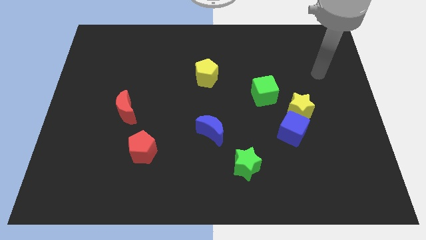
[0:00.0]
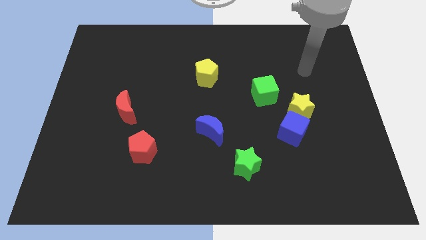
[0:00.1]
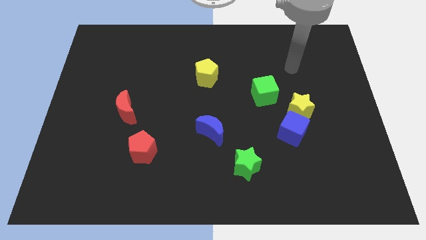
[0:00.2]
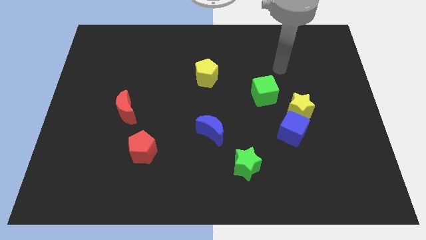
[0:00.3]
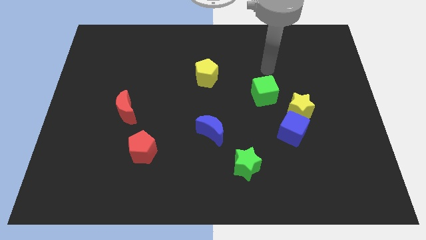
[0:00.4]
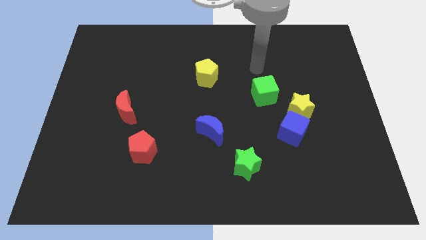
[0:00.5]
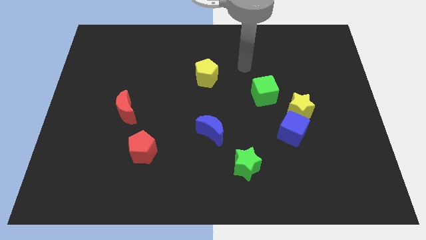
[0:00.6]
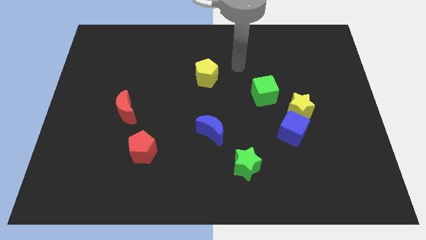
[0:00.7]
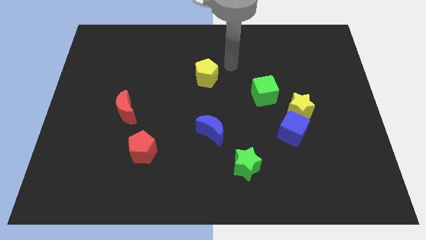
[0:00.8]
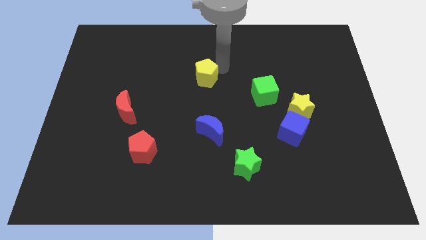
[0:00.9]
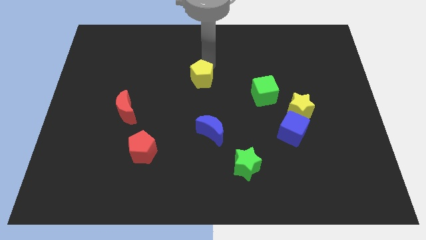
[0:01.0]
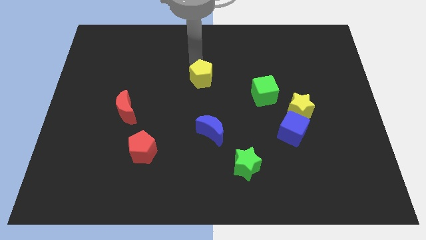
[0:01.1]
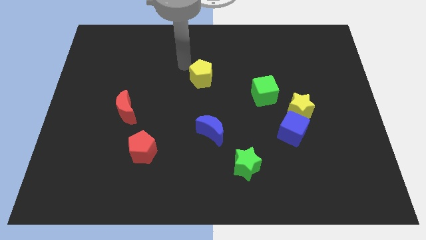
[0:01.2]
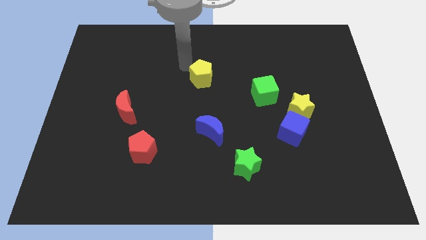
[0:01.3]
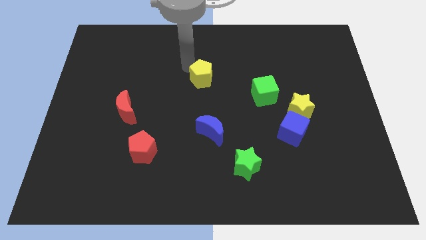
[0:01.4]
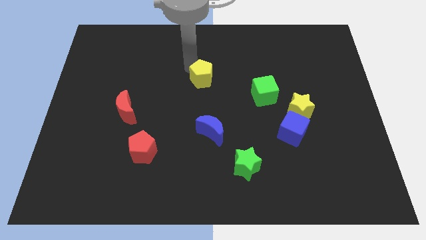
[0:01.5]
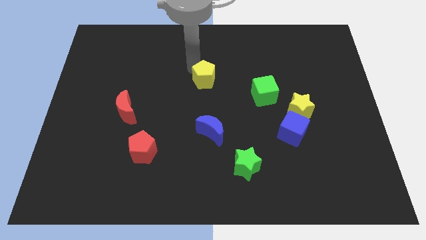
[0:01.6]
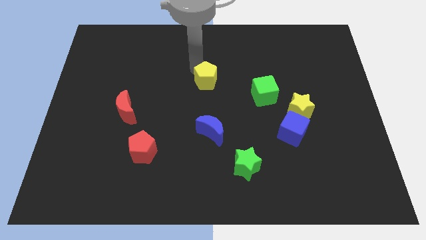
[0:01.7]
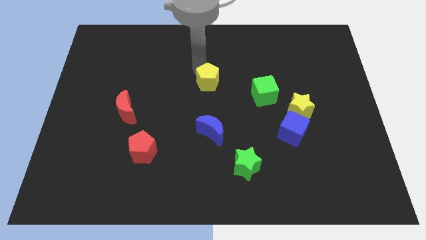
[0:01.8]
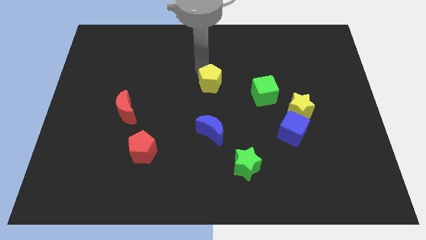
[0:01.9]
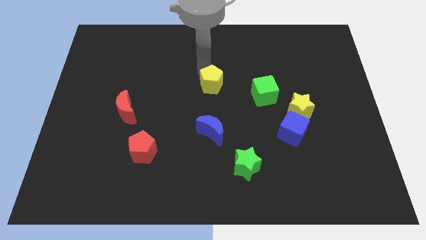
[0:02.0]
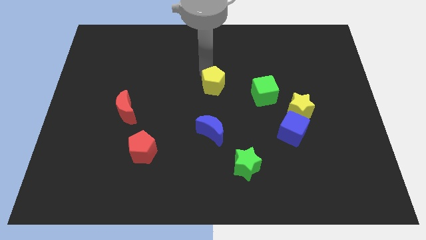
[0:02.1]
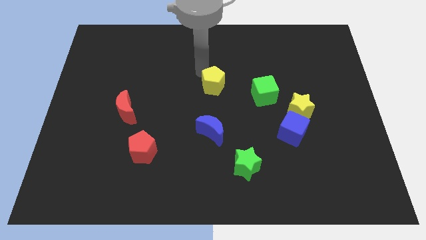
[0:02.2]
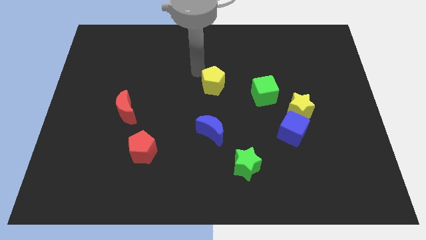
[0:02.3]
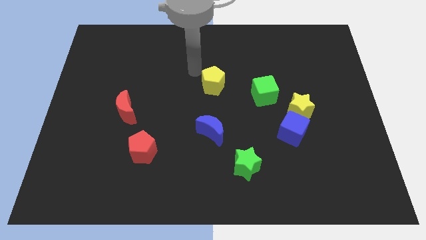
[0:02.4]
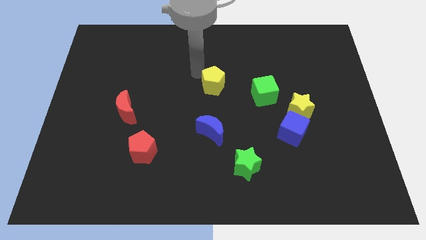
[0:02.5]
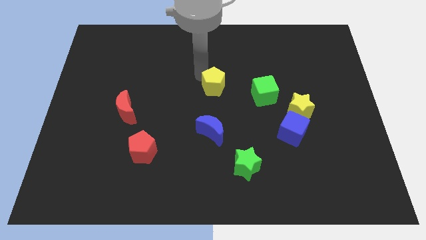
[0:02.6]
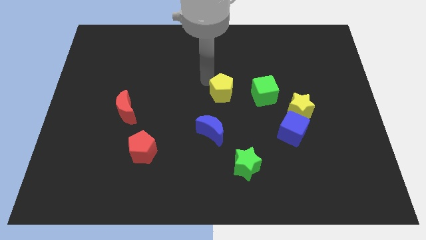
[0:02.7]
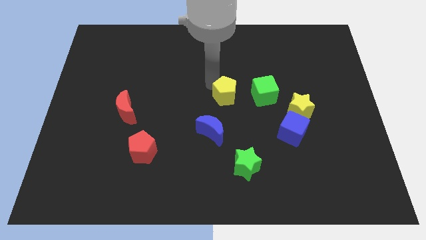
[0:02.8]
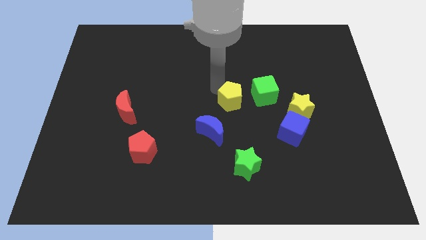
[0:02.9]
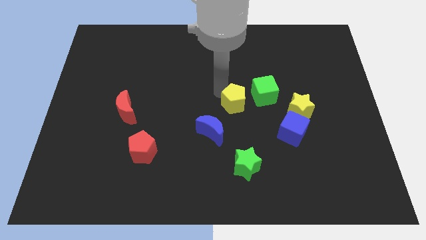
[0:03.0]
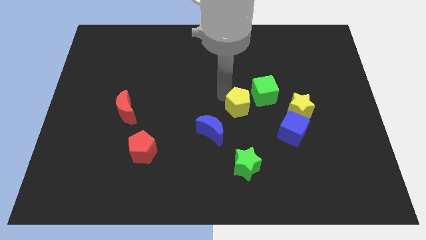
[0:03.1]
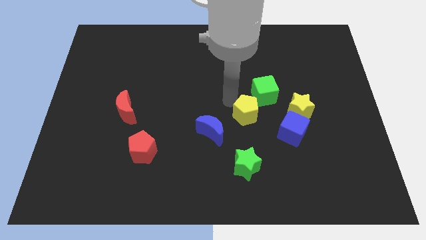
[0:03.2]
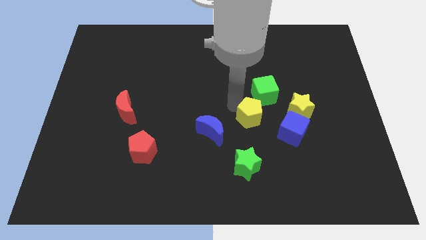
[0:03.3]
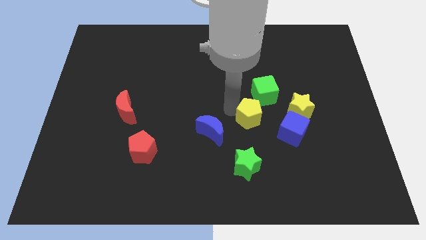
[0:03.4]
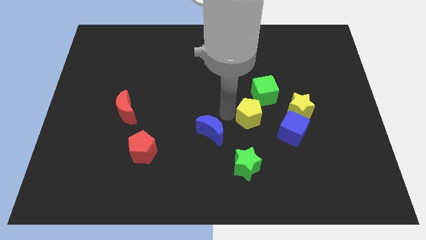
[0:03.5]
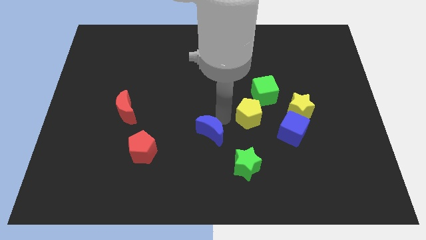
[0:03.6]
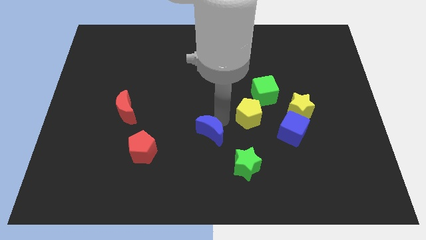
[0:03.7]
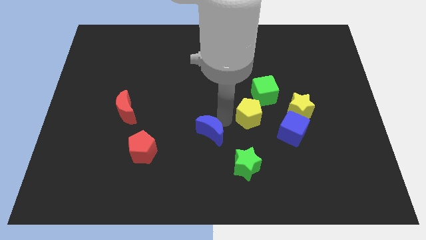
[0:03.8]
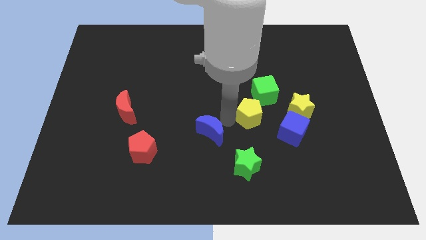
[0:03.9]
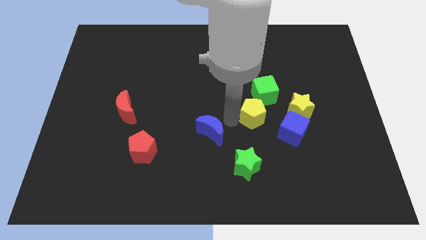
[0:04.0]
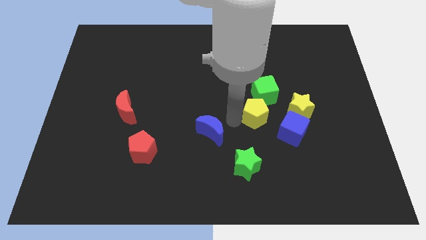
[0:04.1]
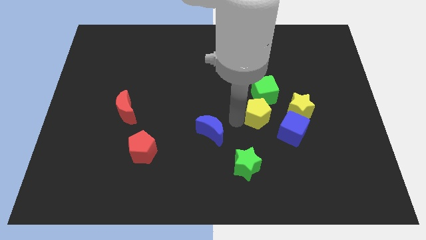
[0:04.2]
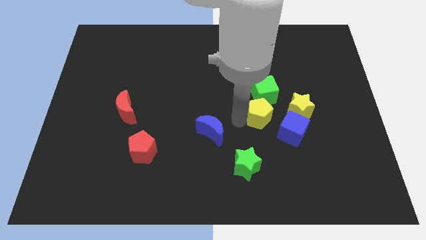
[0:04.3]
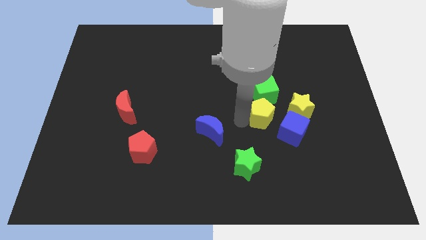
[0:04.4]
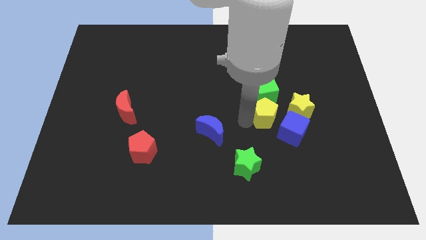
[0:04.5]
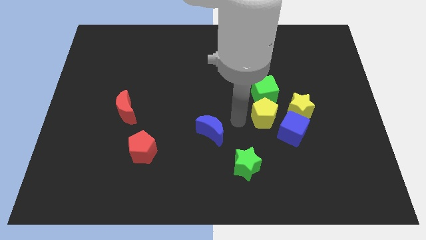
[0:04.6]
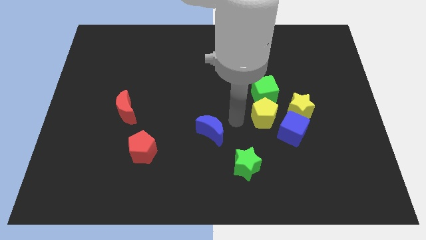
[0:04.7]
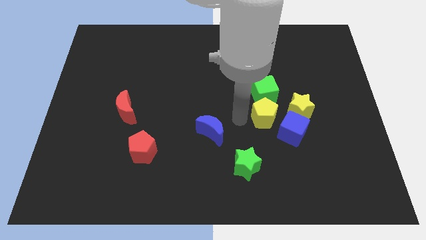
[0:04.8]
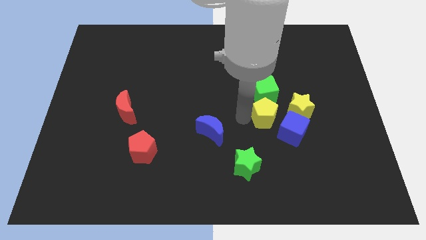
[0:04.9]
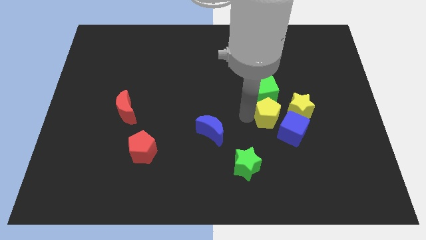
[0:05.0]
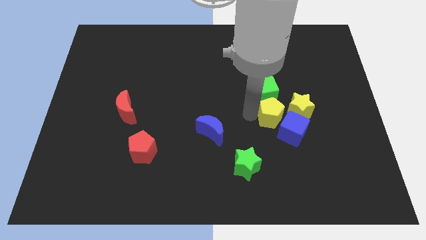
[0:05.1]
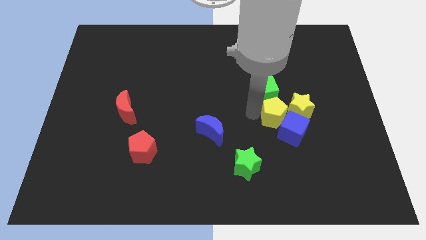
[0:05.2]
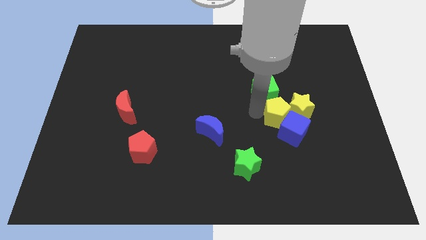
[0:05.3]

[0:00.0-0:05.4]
put the yellow pentagon close to the yellow star

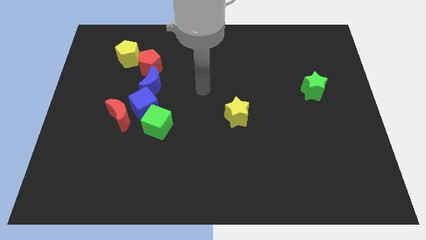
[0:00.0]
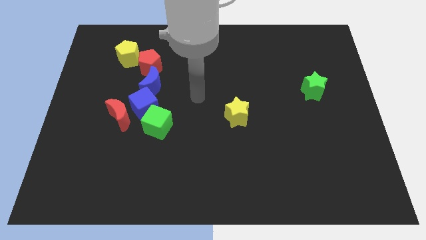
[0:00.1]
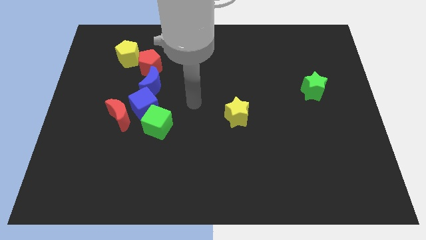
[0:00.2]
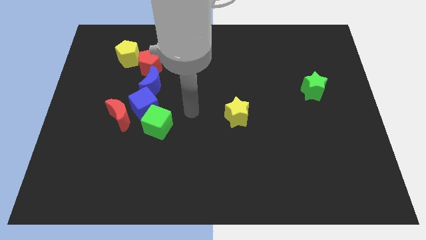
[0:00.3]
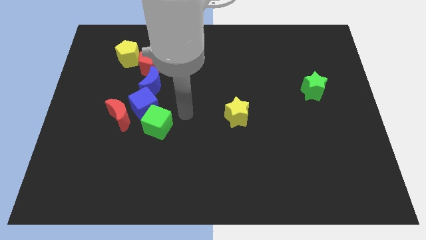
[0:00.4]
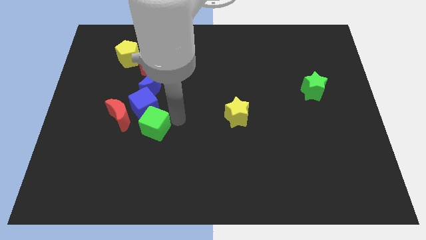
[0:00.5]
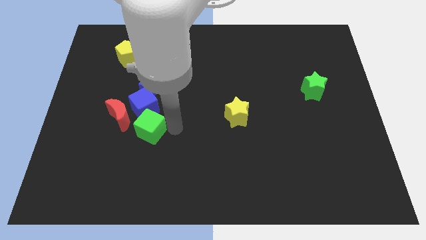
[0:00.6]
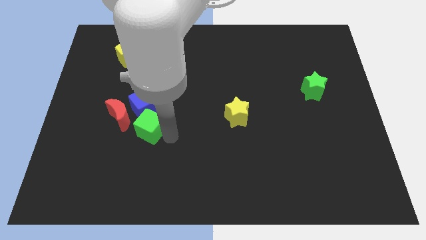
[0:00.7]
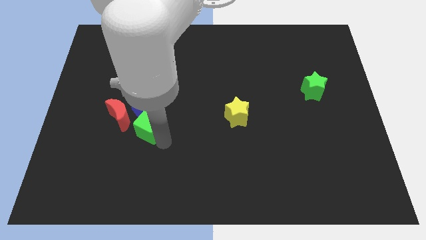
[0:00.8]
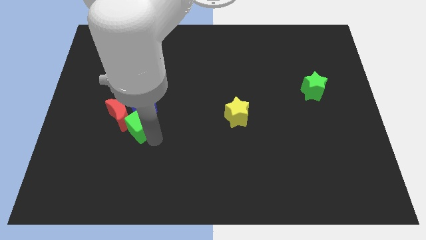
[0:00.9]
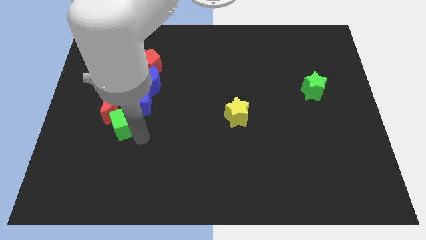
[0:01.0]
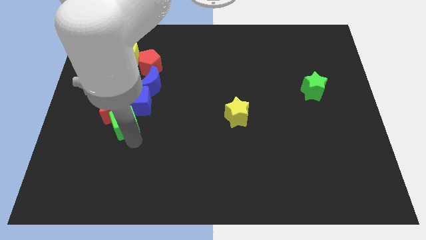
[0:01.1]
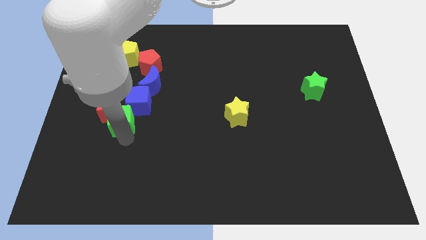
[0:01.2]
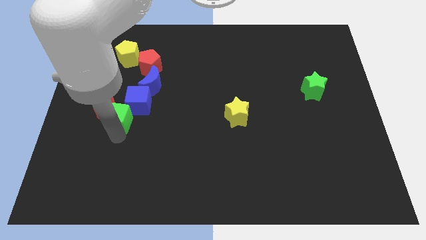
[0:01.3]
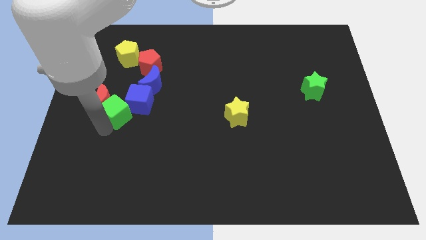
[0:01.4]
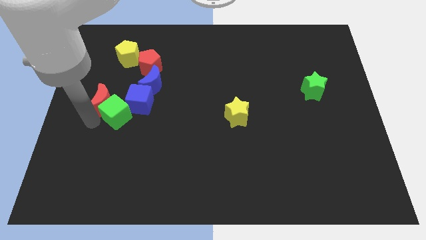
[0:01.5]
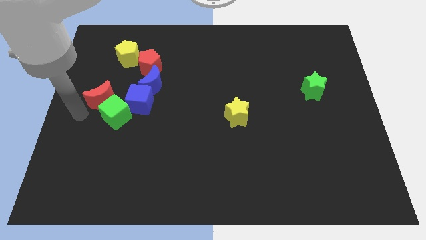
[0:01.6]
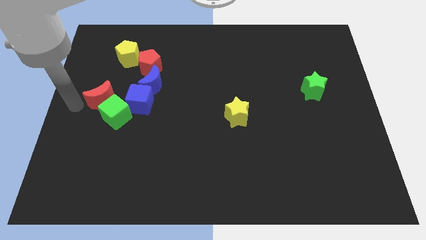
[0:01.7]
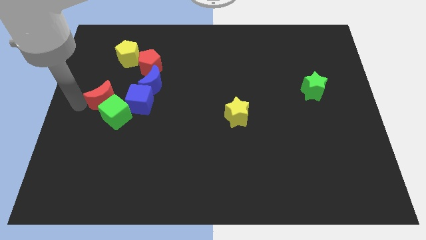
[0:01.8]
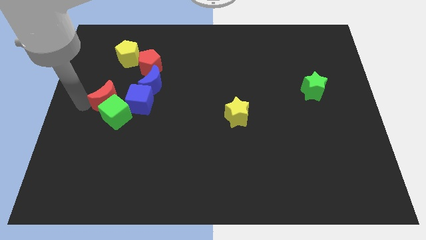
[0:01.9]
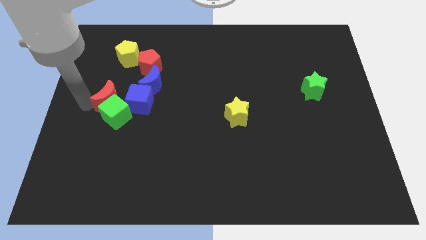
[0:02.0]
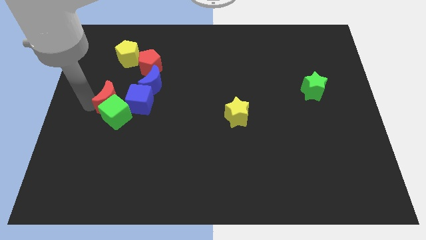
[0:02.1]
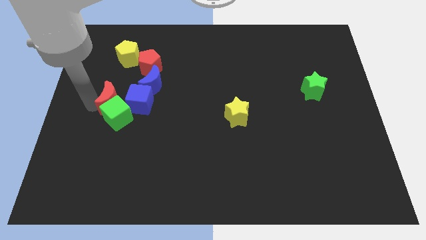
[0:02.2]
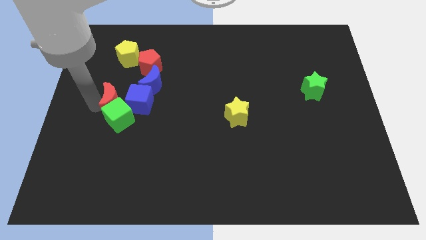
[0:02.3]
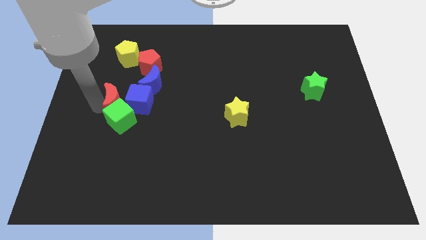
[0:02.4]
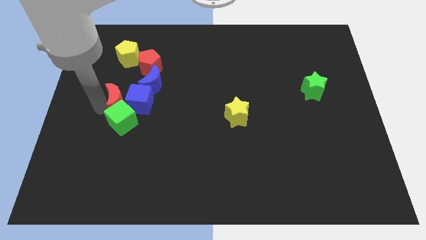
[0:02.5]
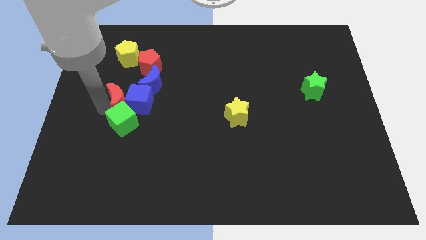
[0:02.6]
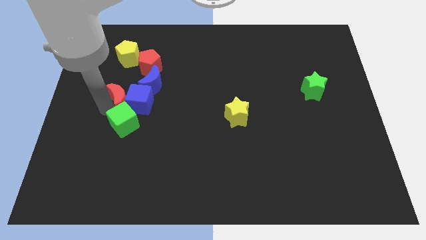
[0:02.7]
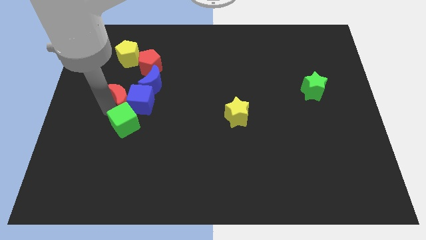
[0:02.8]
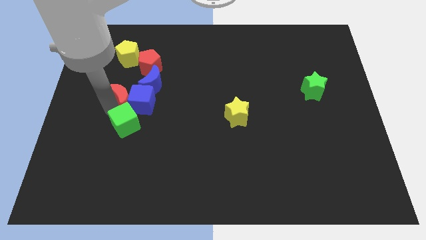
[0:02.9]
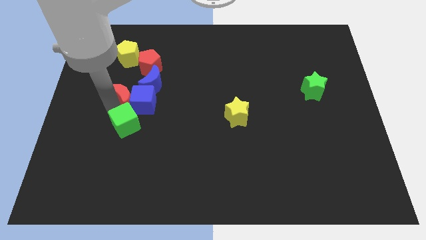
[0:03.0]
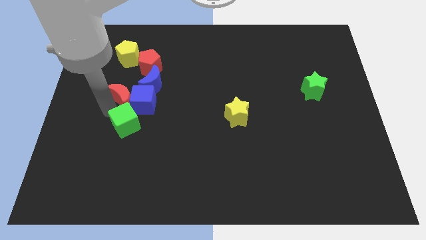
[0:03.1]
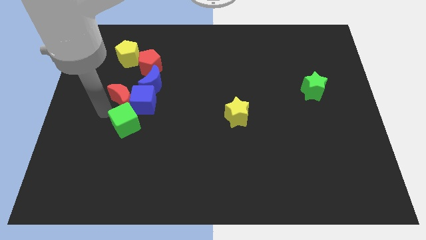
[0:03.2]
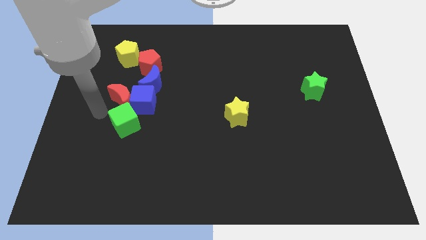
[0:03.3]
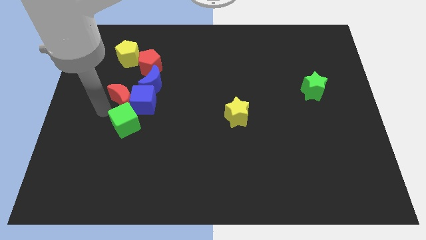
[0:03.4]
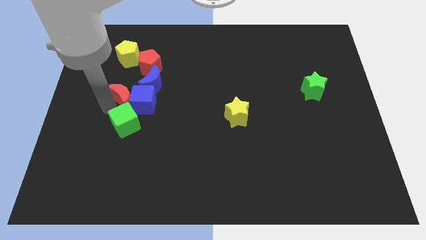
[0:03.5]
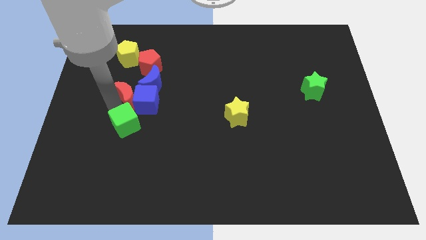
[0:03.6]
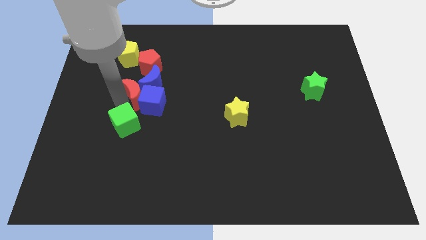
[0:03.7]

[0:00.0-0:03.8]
move the red moon close to the blue moon
